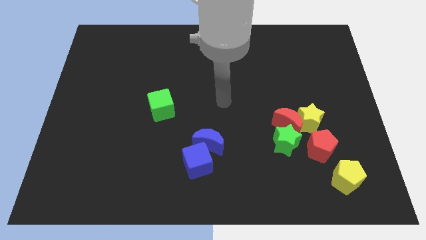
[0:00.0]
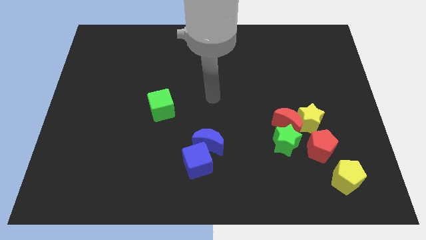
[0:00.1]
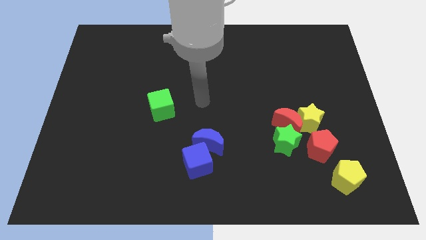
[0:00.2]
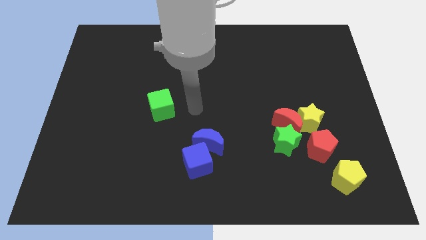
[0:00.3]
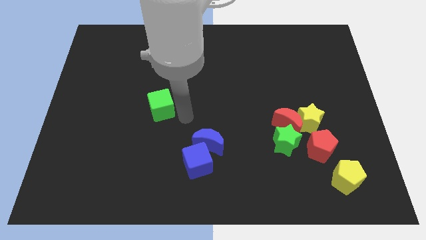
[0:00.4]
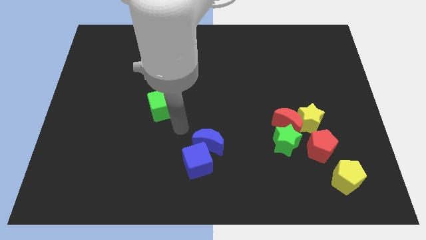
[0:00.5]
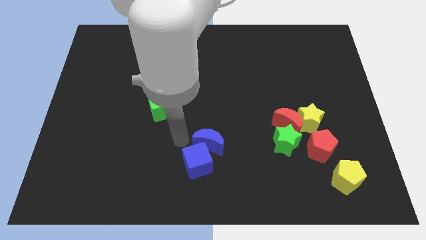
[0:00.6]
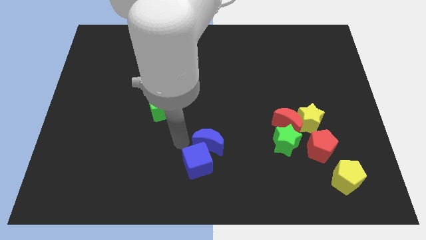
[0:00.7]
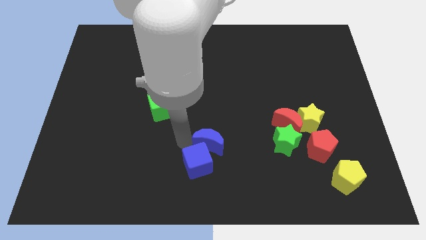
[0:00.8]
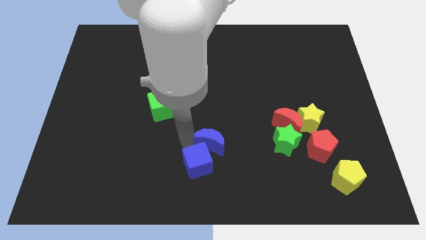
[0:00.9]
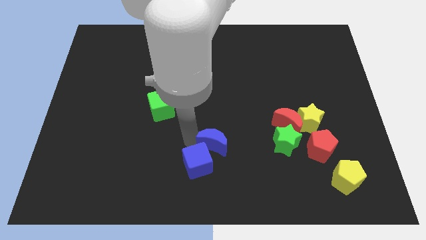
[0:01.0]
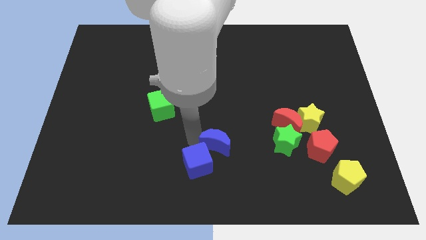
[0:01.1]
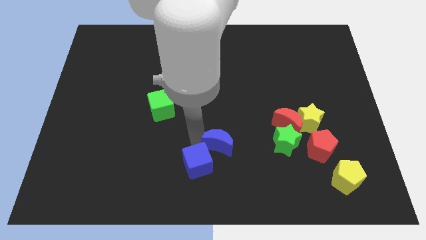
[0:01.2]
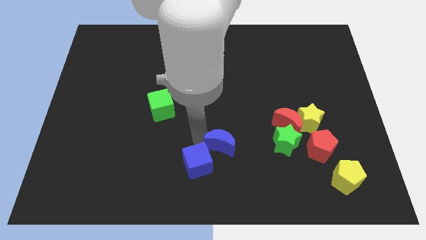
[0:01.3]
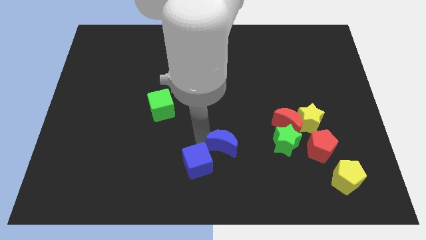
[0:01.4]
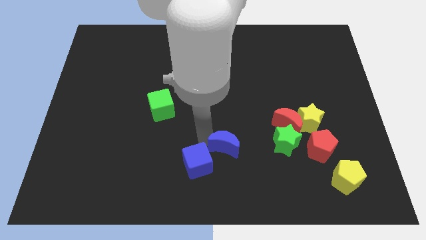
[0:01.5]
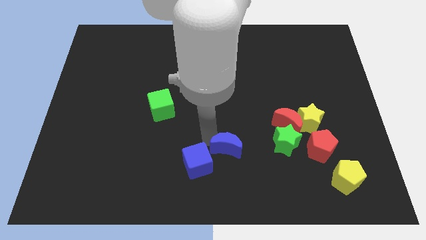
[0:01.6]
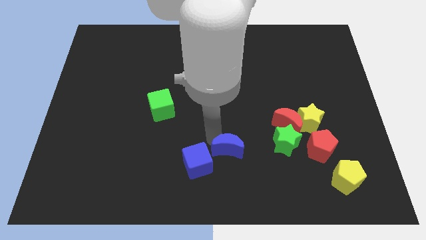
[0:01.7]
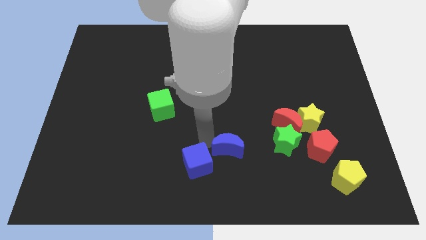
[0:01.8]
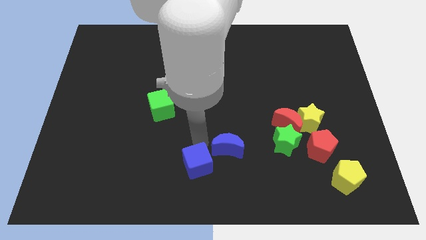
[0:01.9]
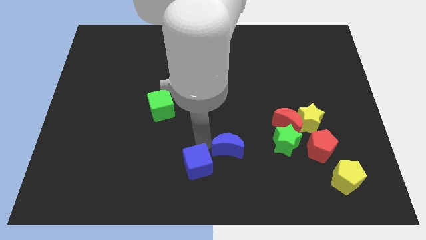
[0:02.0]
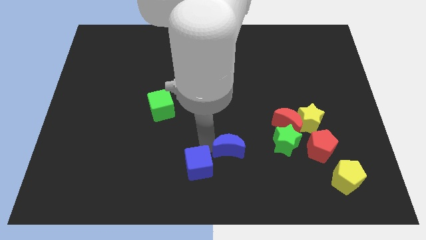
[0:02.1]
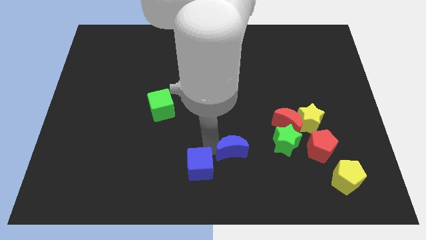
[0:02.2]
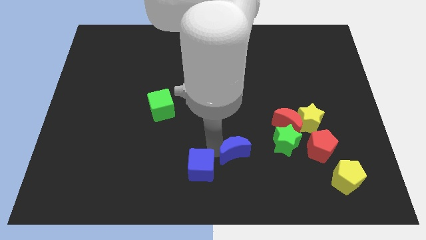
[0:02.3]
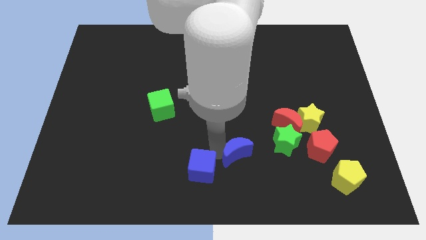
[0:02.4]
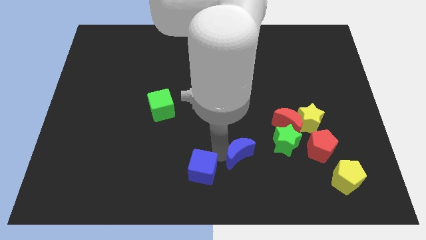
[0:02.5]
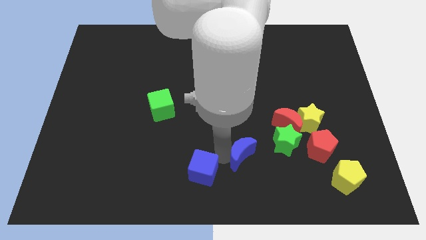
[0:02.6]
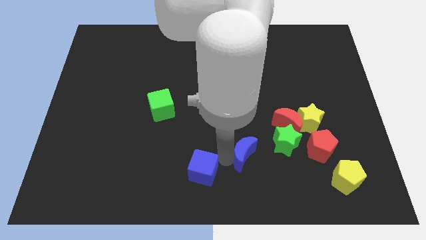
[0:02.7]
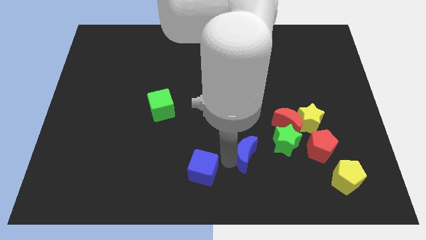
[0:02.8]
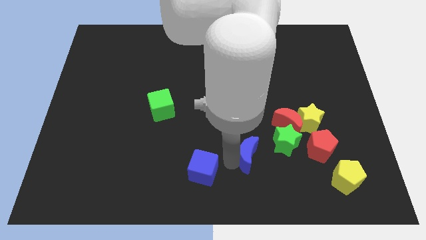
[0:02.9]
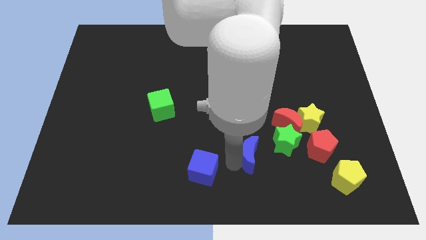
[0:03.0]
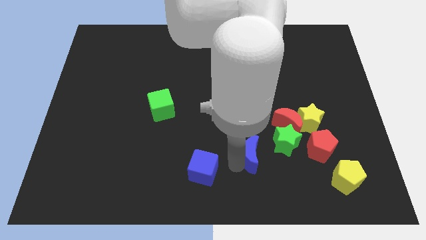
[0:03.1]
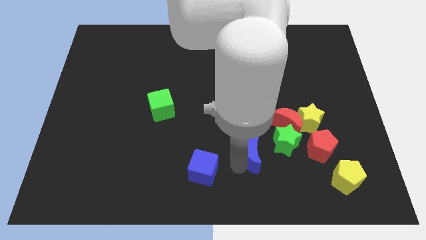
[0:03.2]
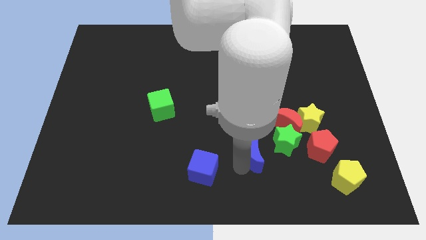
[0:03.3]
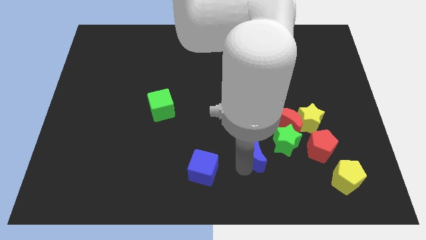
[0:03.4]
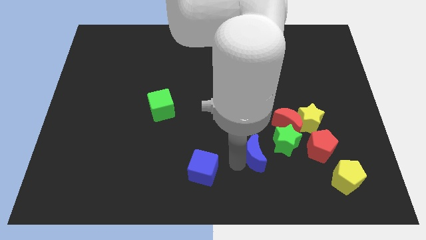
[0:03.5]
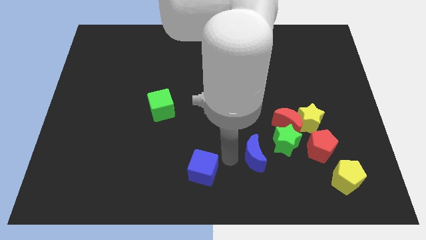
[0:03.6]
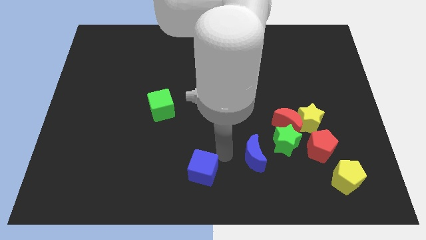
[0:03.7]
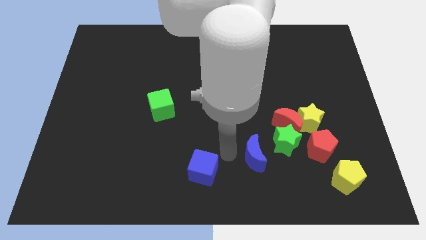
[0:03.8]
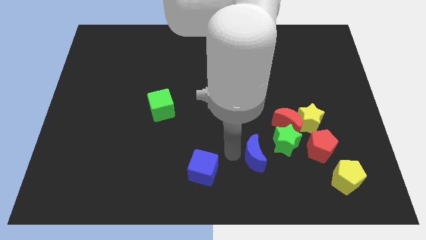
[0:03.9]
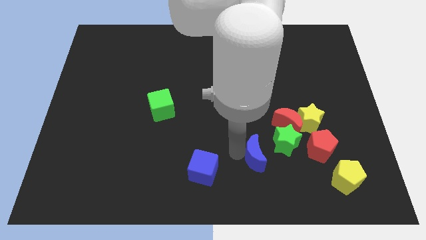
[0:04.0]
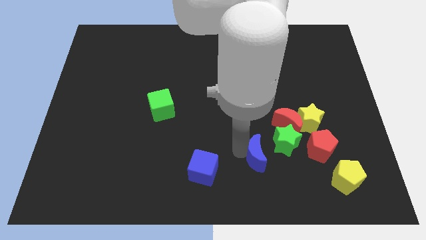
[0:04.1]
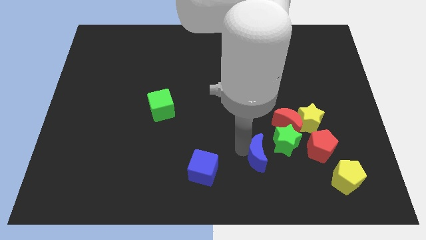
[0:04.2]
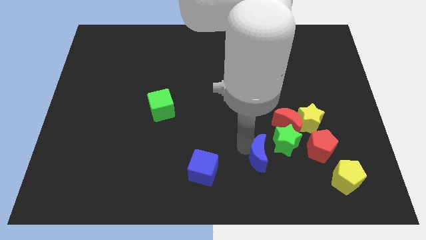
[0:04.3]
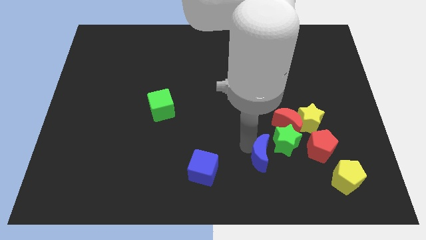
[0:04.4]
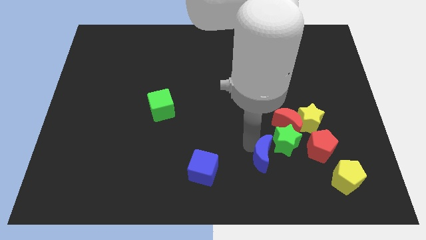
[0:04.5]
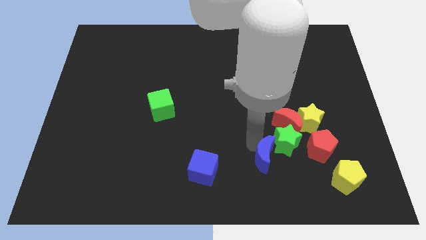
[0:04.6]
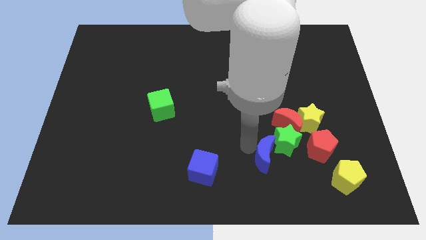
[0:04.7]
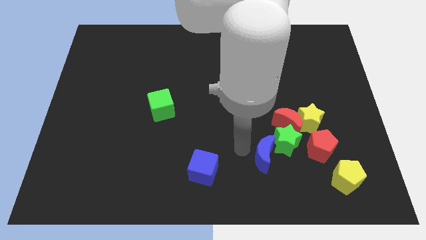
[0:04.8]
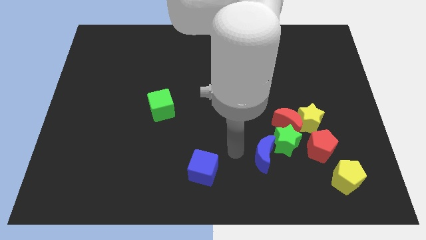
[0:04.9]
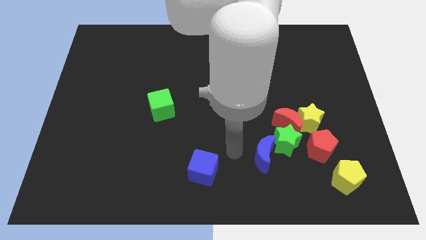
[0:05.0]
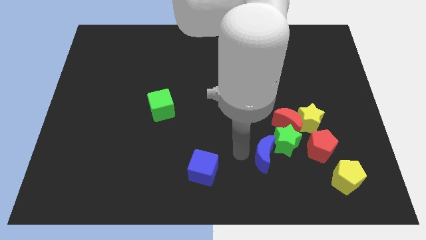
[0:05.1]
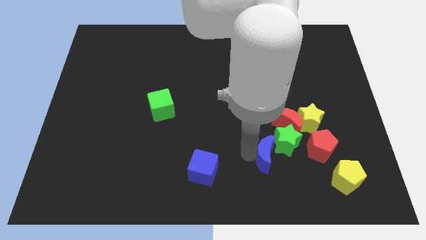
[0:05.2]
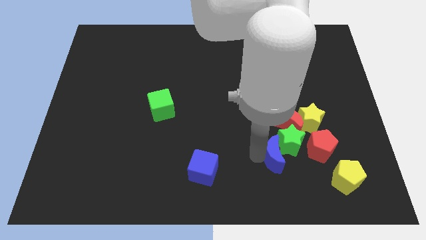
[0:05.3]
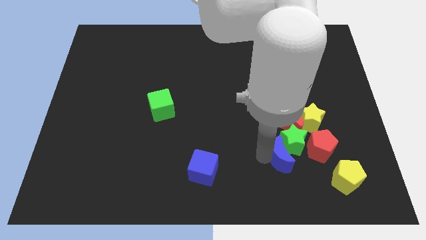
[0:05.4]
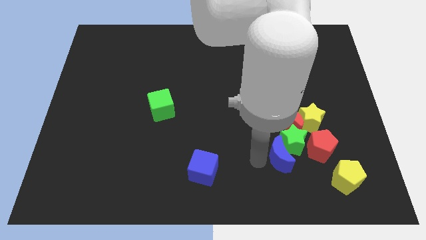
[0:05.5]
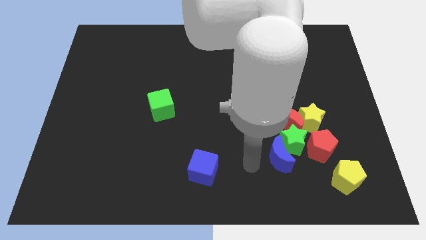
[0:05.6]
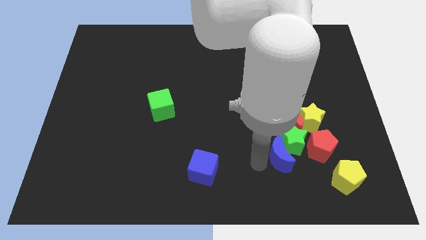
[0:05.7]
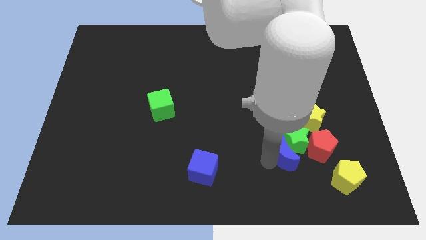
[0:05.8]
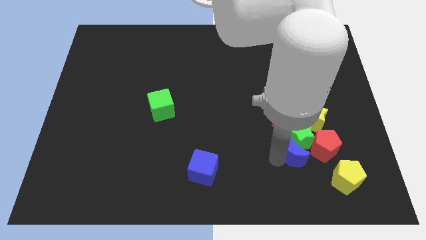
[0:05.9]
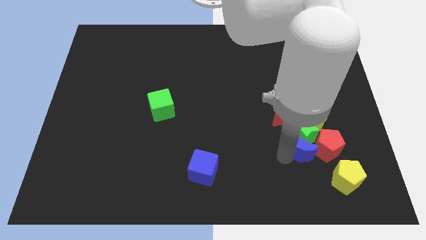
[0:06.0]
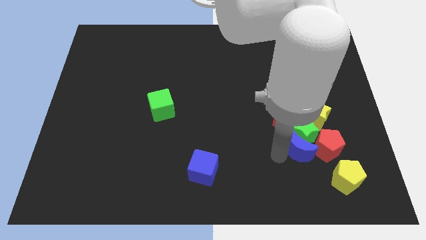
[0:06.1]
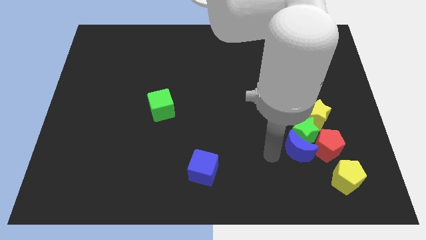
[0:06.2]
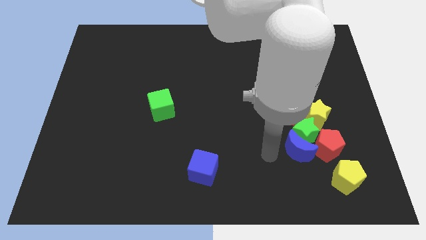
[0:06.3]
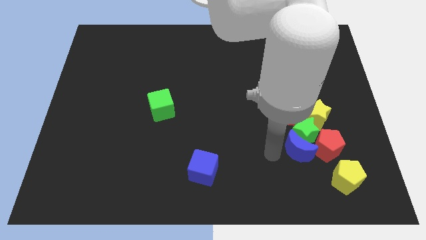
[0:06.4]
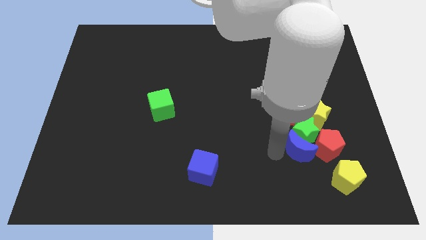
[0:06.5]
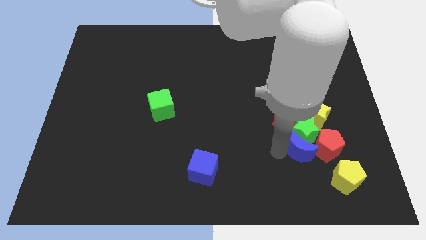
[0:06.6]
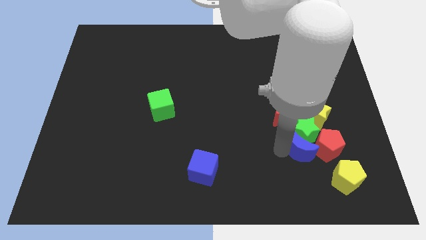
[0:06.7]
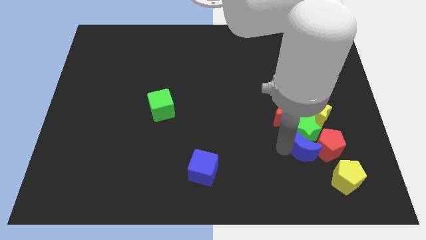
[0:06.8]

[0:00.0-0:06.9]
put the blue moon to the red pentagon

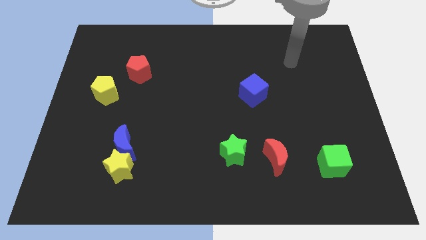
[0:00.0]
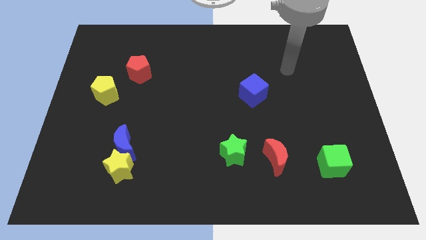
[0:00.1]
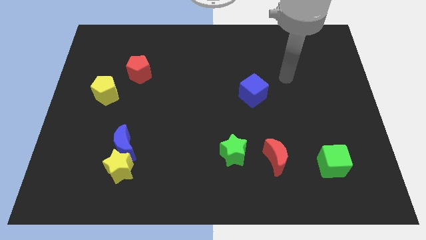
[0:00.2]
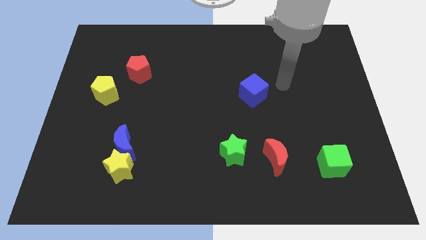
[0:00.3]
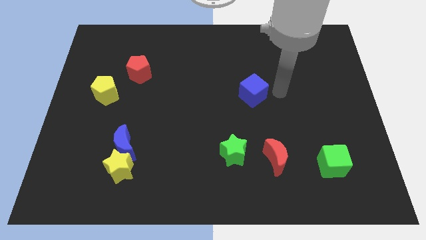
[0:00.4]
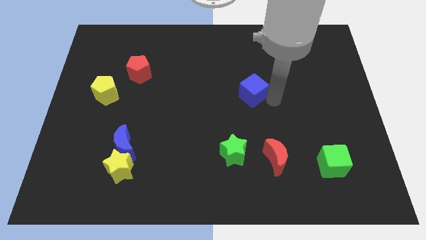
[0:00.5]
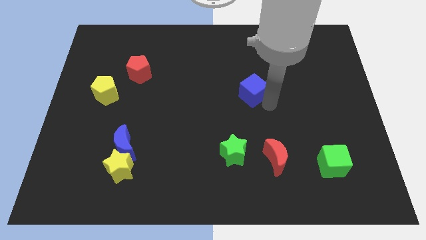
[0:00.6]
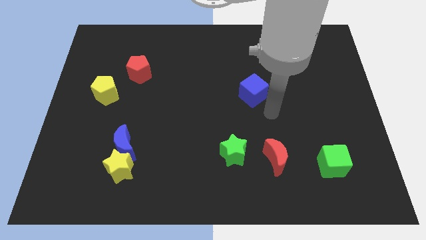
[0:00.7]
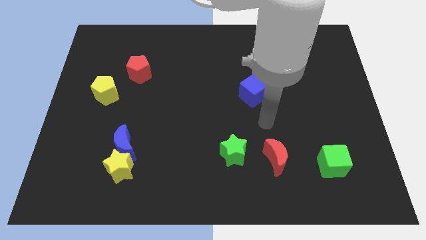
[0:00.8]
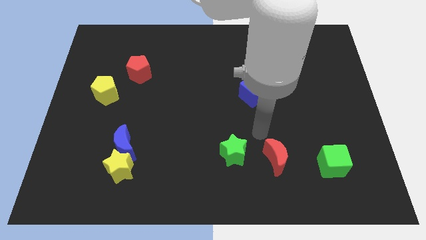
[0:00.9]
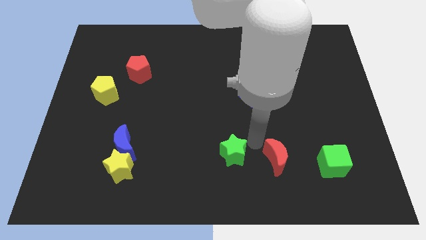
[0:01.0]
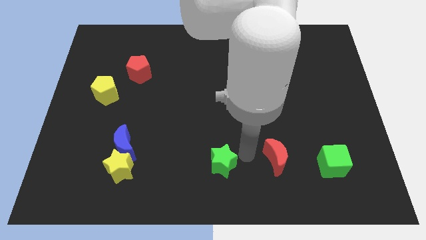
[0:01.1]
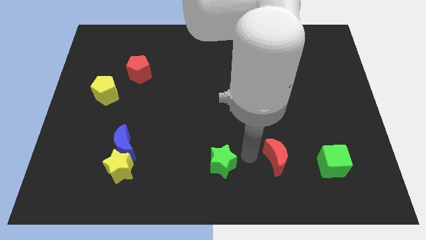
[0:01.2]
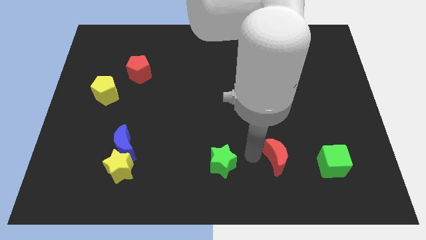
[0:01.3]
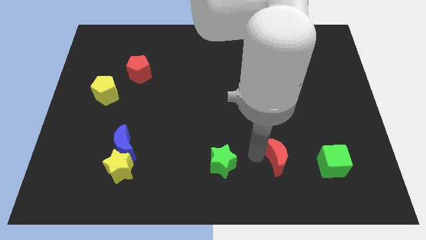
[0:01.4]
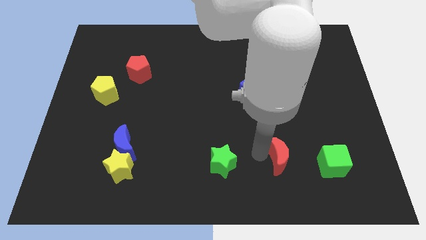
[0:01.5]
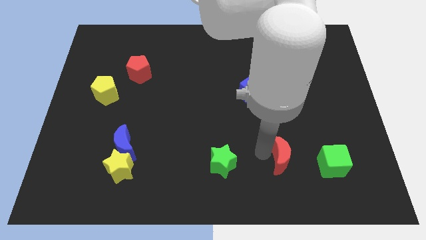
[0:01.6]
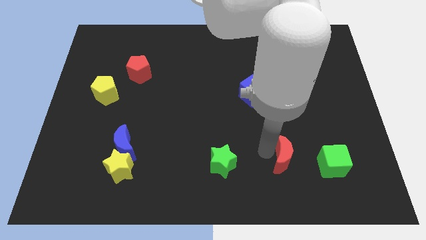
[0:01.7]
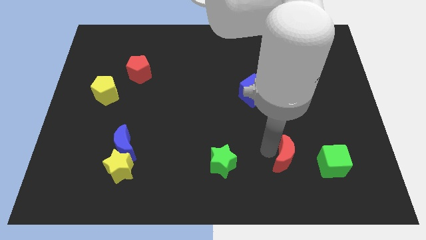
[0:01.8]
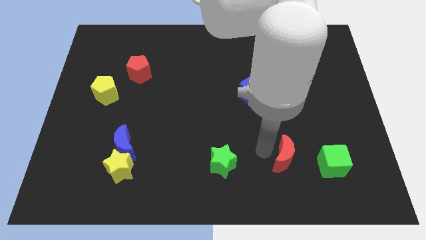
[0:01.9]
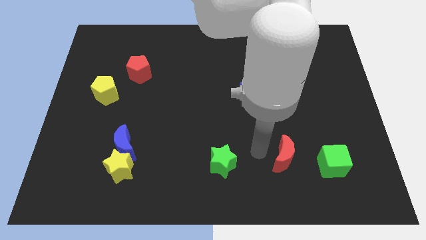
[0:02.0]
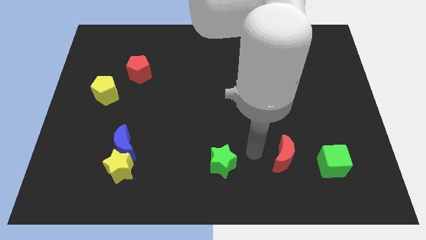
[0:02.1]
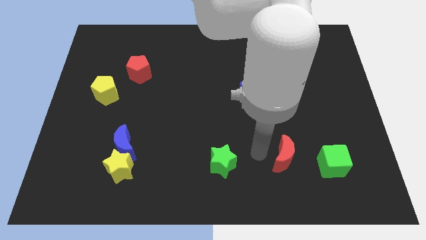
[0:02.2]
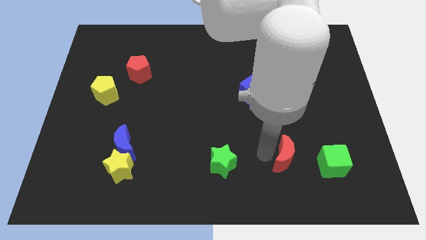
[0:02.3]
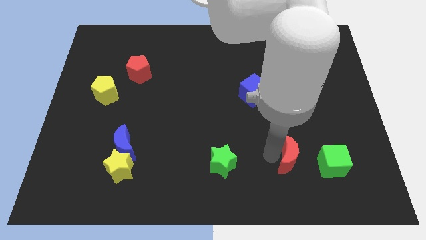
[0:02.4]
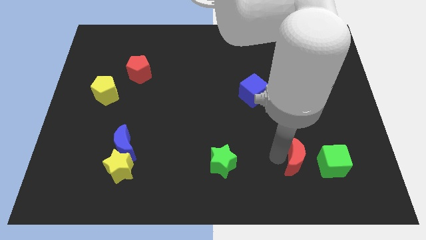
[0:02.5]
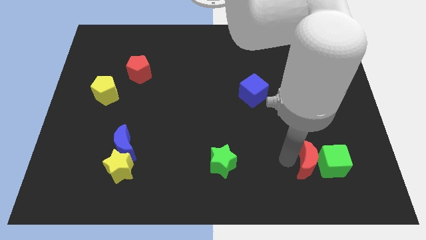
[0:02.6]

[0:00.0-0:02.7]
put the red moon close to the green cube
